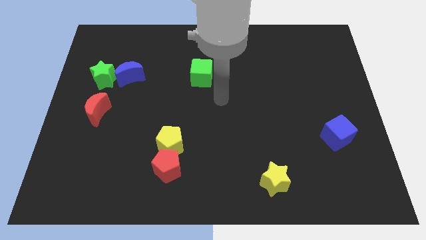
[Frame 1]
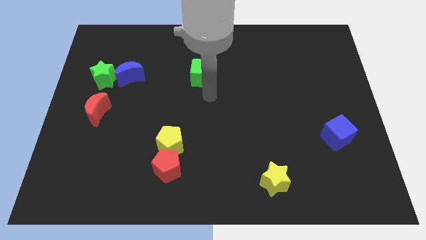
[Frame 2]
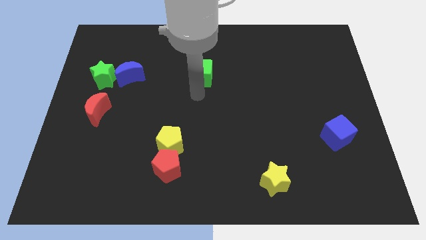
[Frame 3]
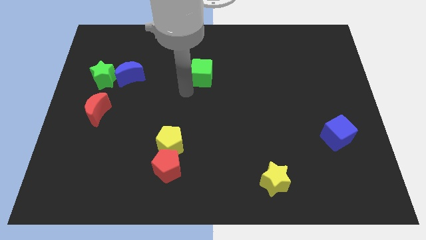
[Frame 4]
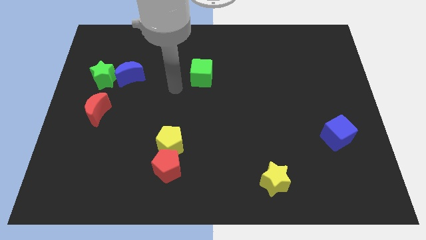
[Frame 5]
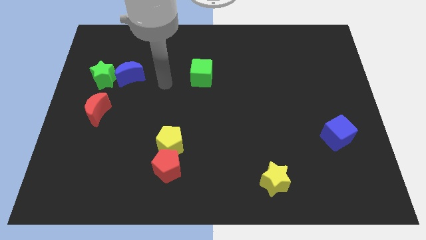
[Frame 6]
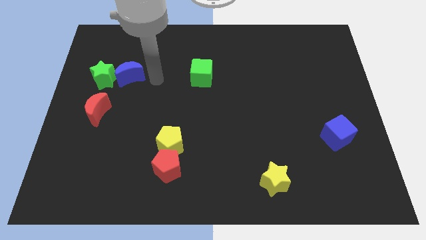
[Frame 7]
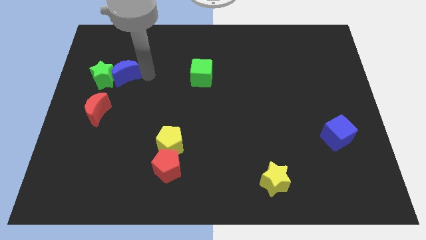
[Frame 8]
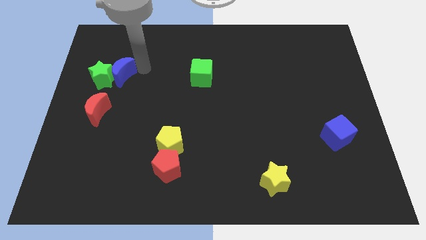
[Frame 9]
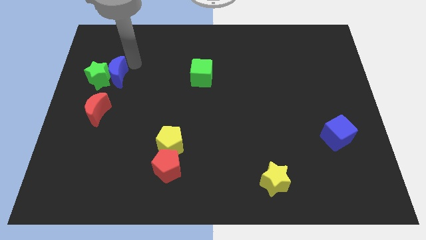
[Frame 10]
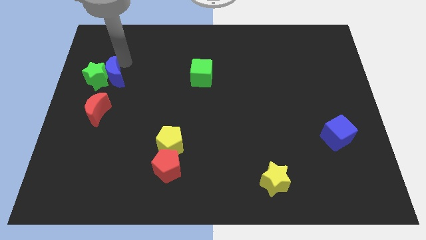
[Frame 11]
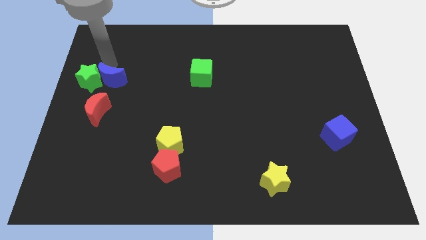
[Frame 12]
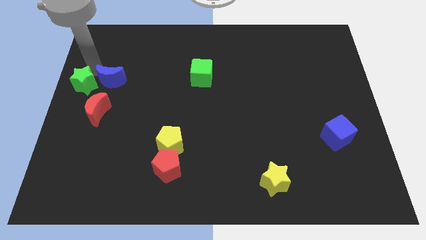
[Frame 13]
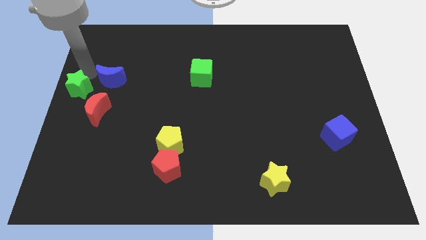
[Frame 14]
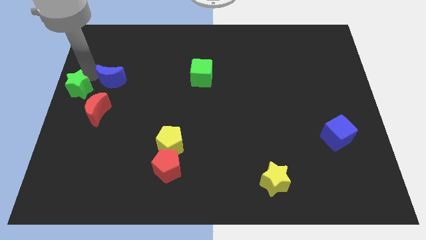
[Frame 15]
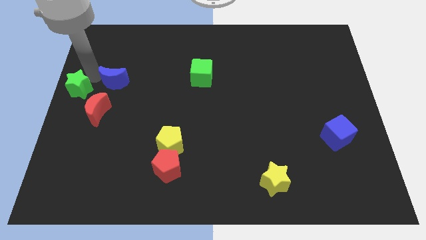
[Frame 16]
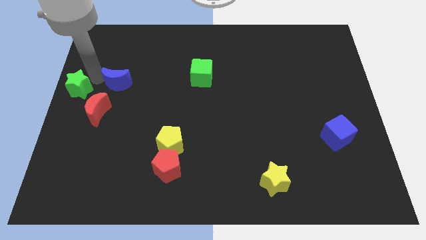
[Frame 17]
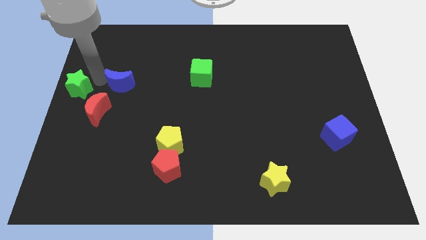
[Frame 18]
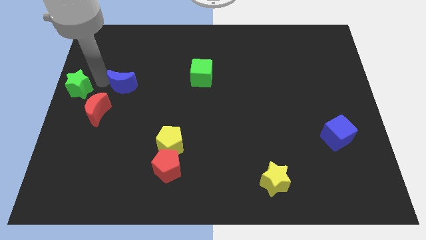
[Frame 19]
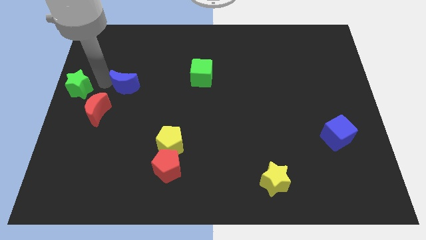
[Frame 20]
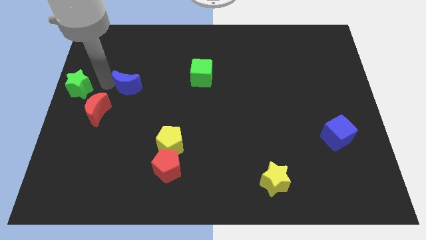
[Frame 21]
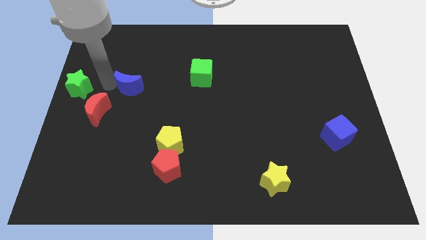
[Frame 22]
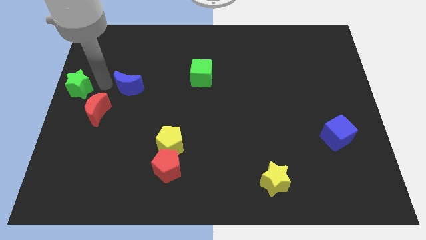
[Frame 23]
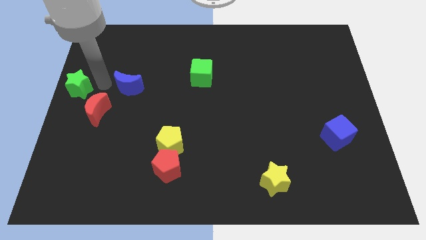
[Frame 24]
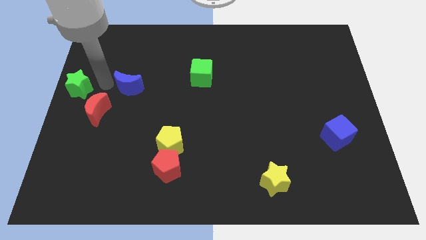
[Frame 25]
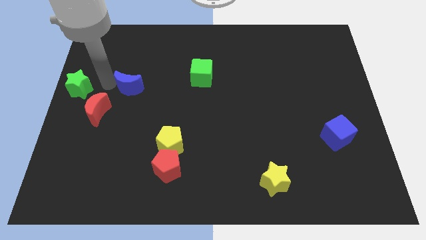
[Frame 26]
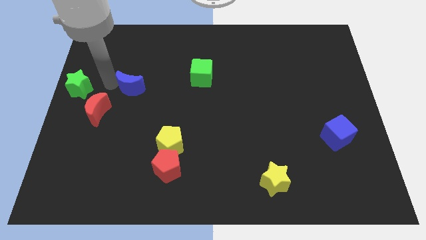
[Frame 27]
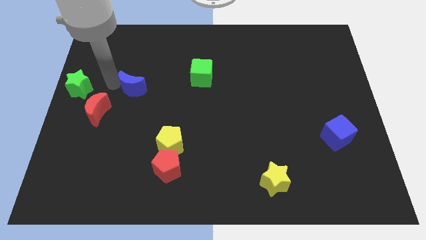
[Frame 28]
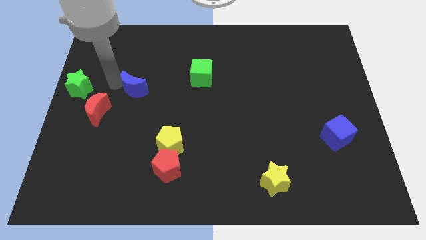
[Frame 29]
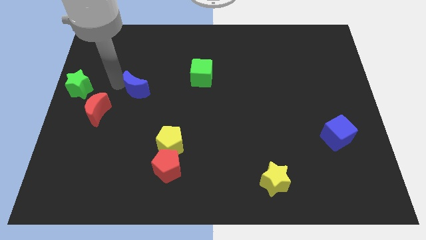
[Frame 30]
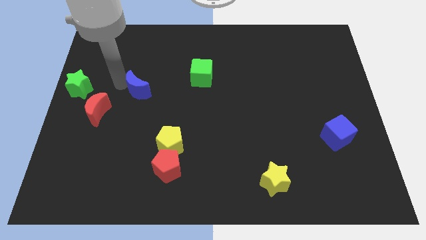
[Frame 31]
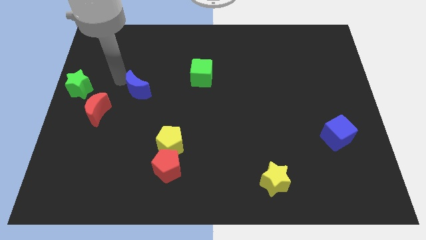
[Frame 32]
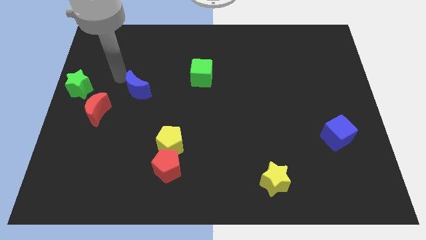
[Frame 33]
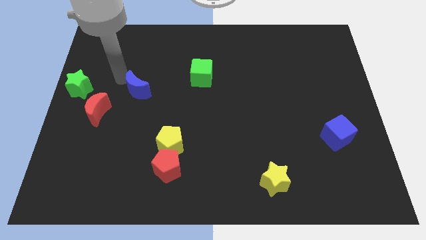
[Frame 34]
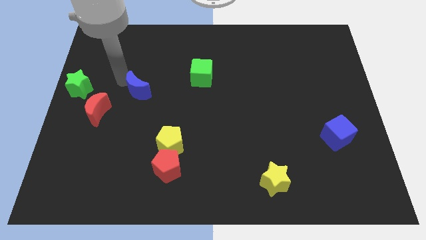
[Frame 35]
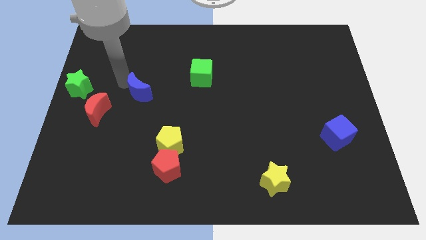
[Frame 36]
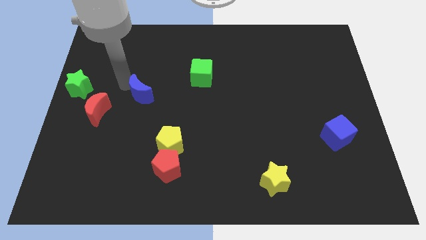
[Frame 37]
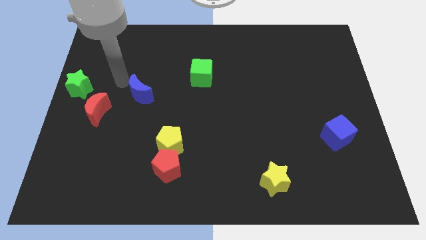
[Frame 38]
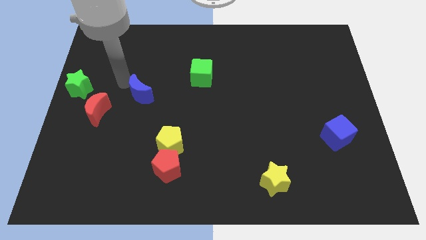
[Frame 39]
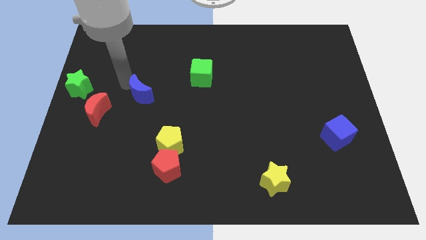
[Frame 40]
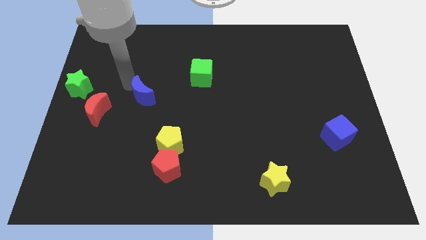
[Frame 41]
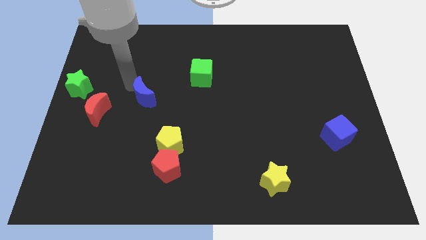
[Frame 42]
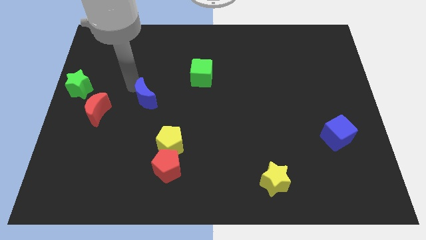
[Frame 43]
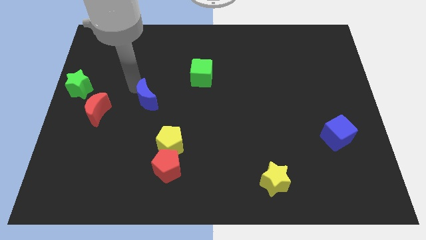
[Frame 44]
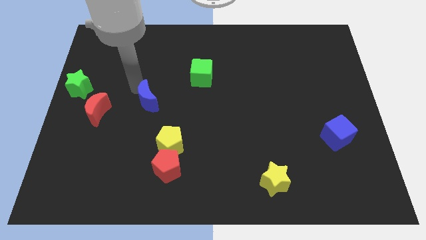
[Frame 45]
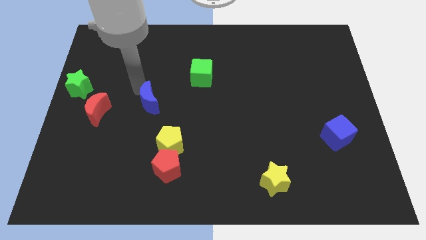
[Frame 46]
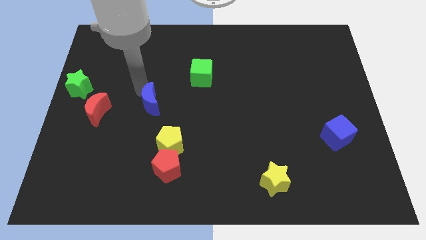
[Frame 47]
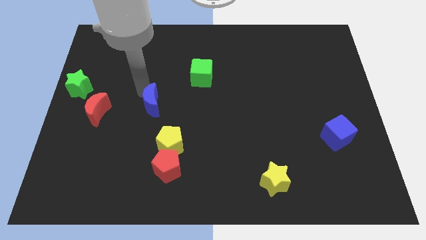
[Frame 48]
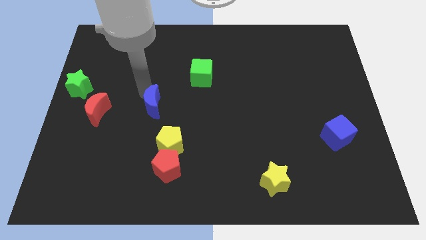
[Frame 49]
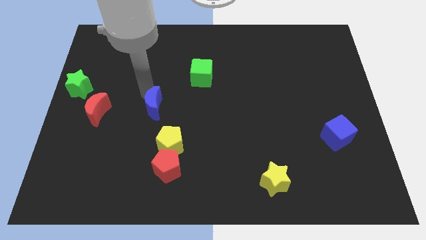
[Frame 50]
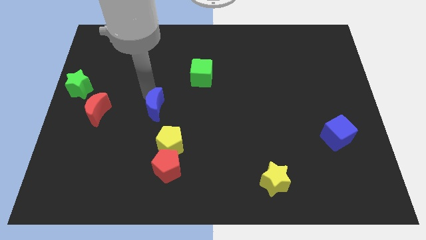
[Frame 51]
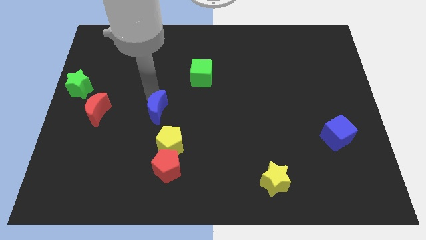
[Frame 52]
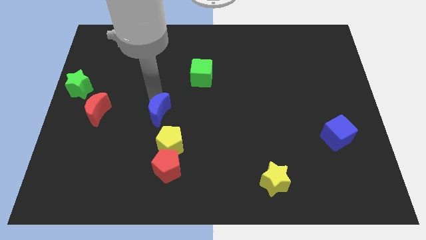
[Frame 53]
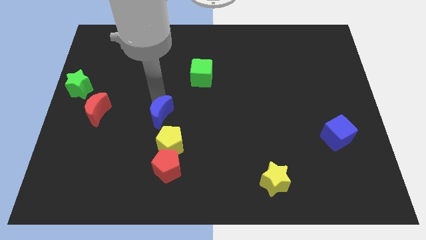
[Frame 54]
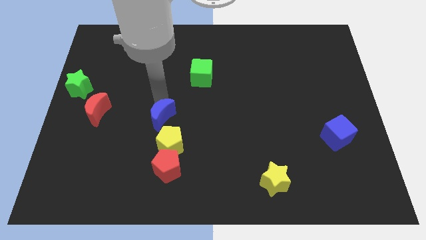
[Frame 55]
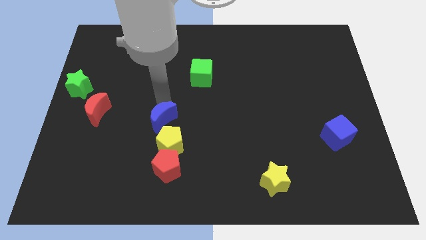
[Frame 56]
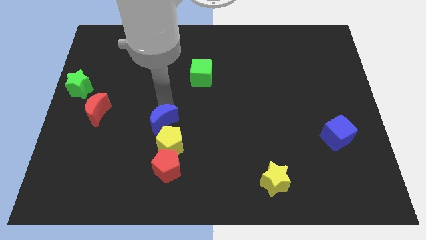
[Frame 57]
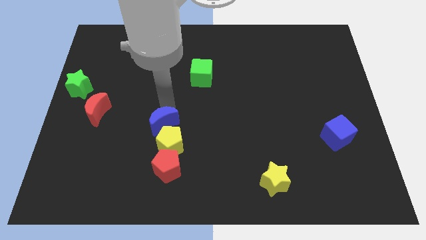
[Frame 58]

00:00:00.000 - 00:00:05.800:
put the blue moon towards the yellow pentagon
